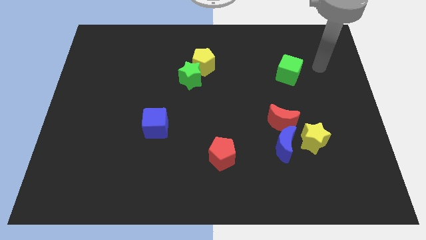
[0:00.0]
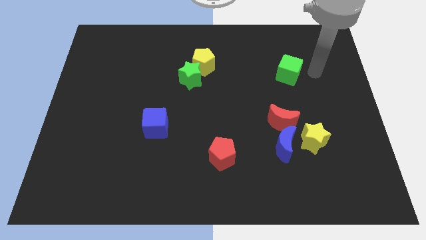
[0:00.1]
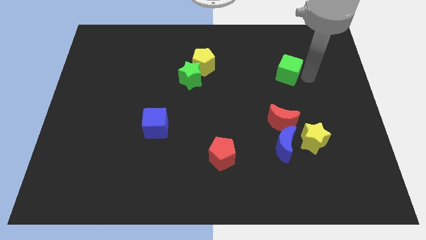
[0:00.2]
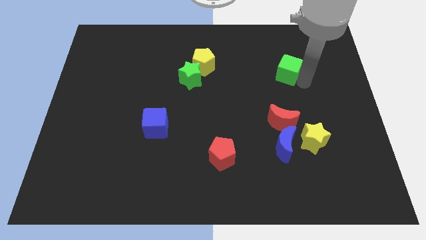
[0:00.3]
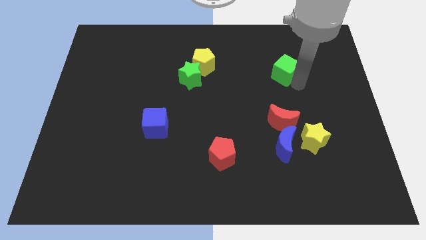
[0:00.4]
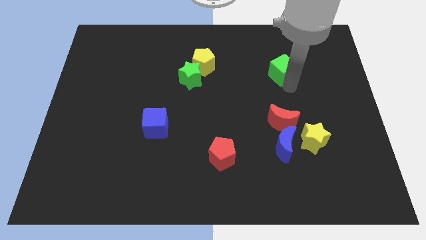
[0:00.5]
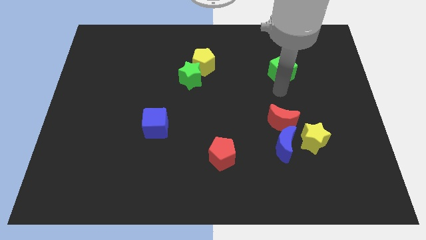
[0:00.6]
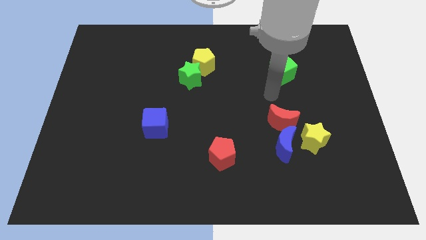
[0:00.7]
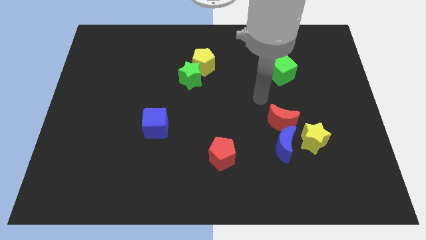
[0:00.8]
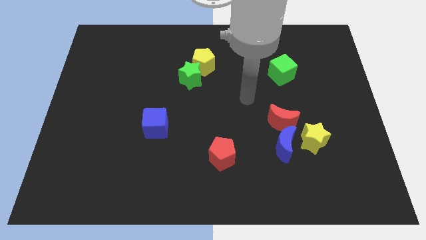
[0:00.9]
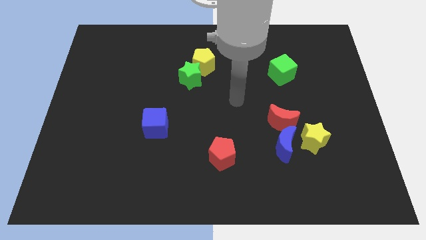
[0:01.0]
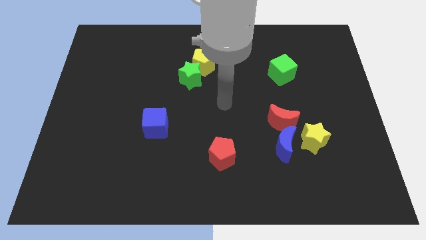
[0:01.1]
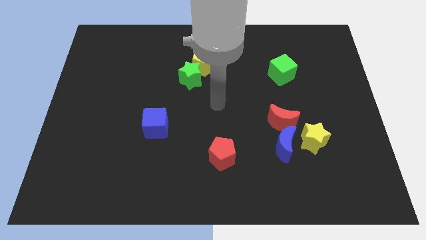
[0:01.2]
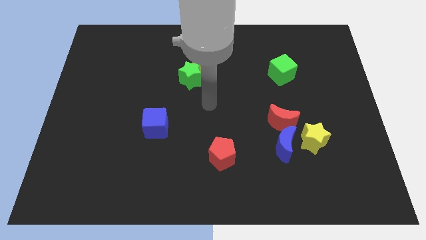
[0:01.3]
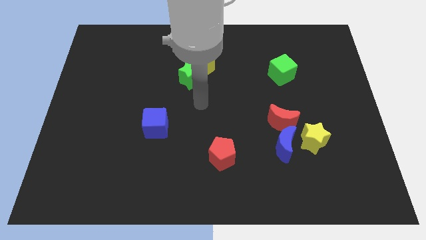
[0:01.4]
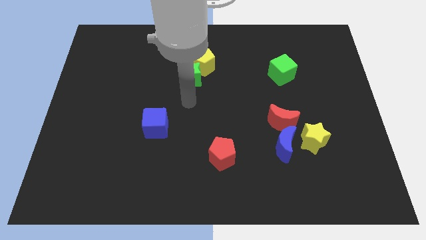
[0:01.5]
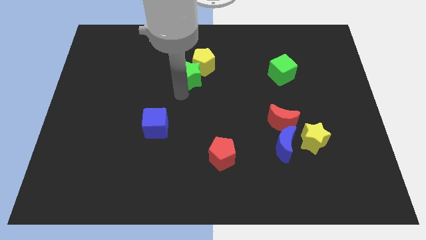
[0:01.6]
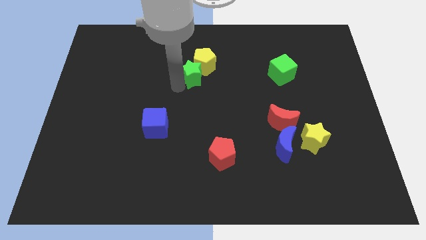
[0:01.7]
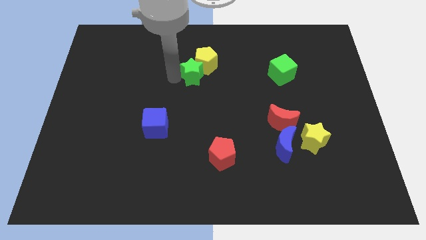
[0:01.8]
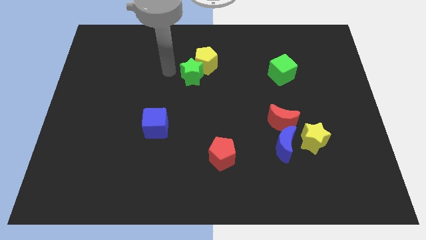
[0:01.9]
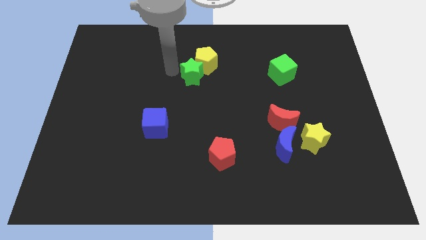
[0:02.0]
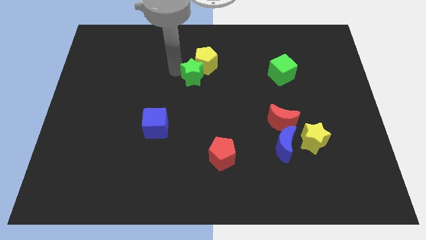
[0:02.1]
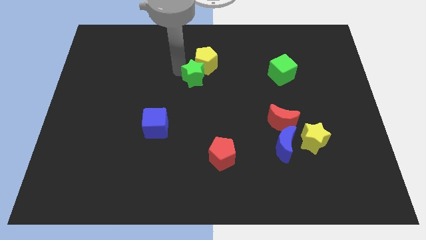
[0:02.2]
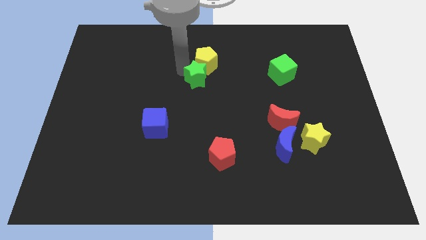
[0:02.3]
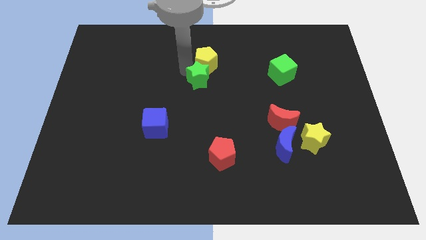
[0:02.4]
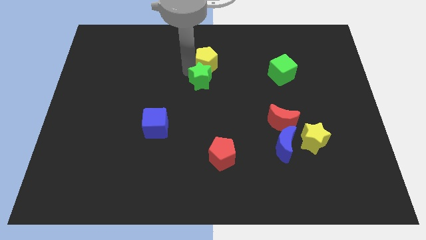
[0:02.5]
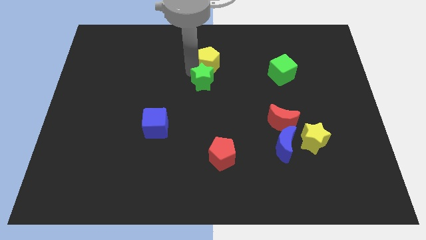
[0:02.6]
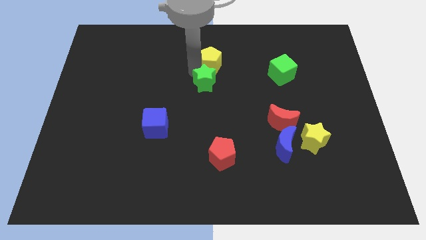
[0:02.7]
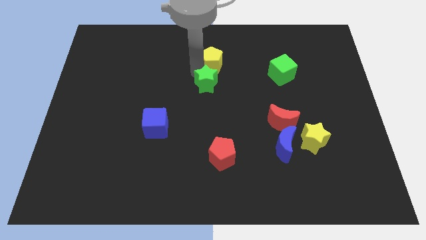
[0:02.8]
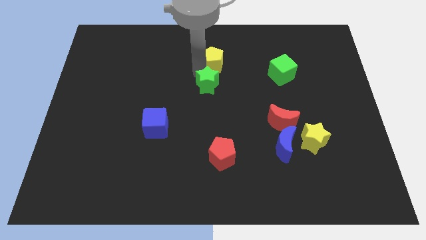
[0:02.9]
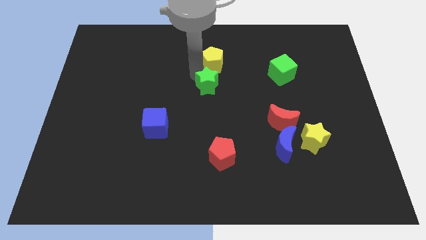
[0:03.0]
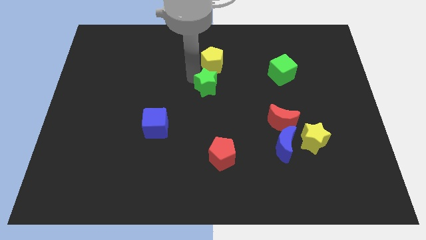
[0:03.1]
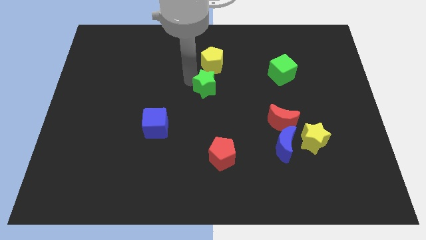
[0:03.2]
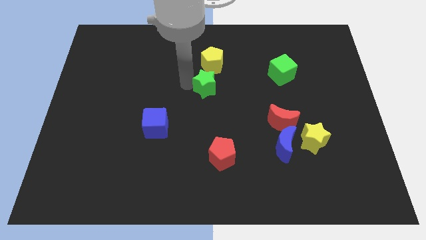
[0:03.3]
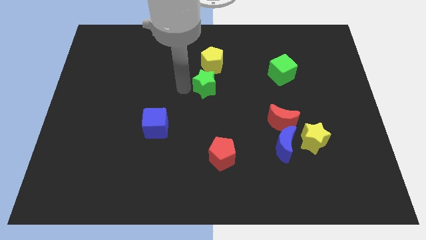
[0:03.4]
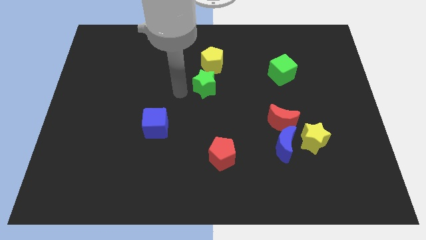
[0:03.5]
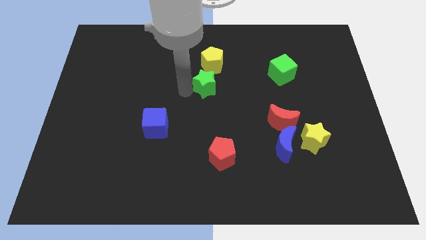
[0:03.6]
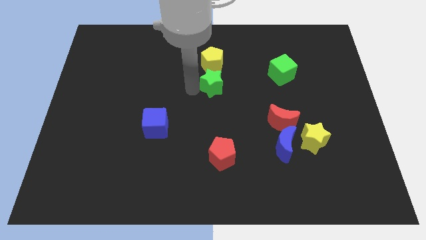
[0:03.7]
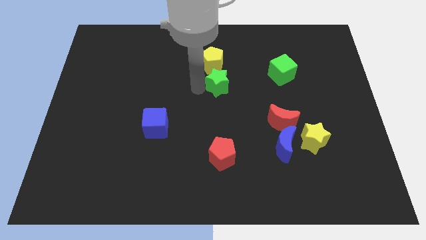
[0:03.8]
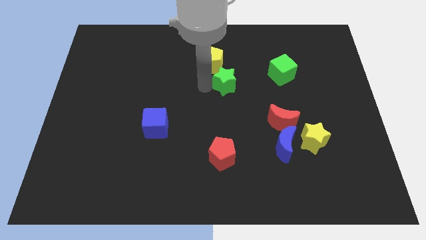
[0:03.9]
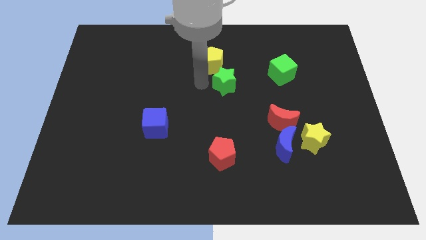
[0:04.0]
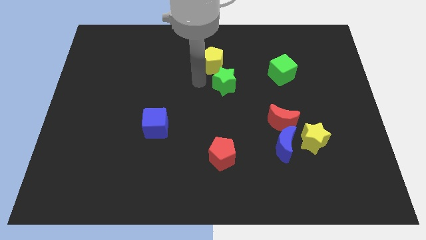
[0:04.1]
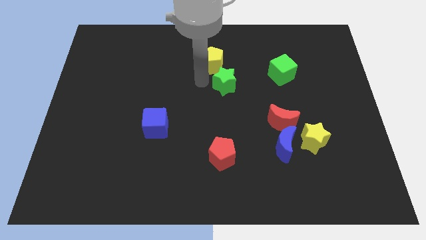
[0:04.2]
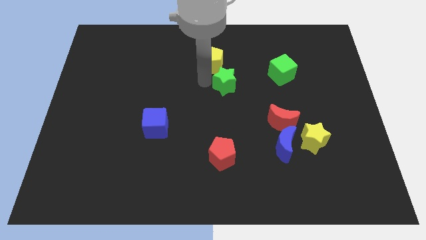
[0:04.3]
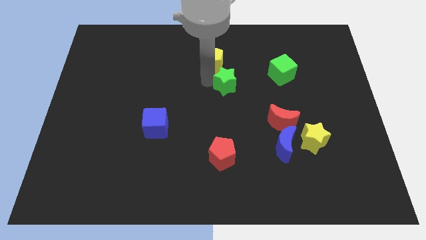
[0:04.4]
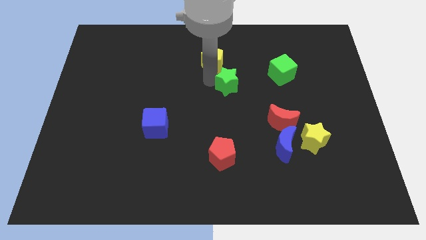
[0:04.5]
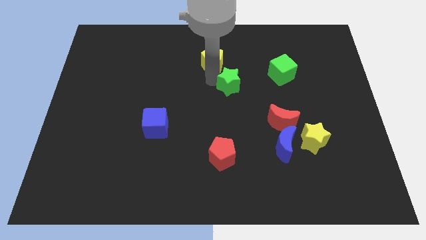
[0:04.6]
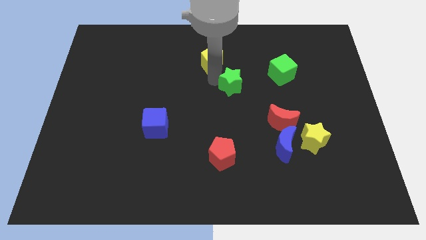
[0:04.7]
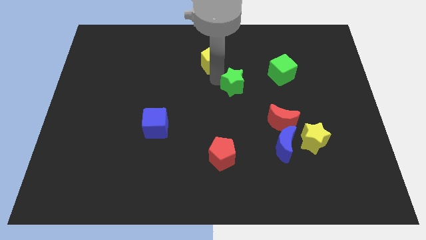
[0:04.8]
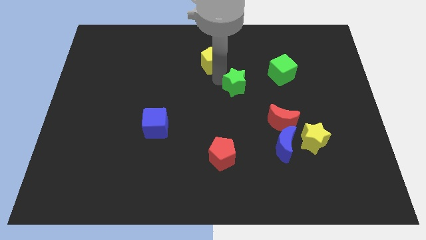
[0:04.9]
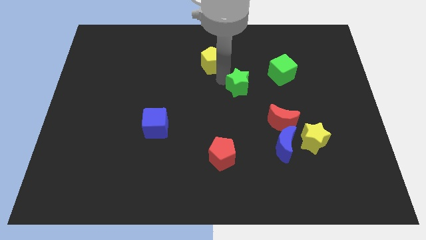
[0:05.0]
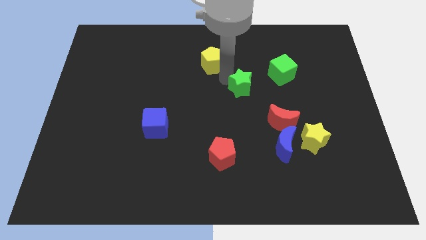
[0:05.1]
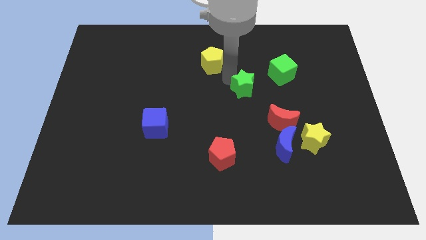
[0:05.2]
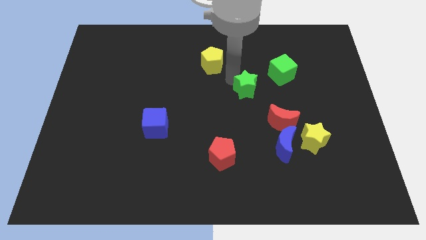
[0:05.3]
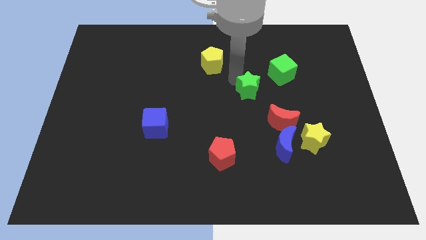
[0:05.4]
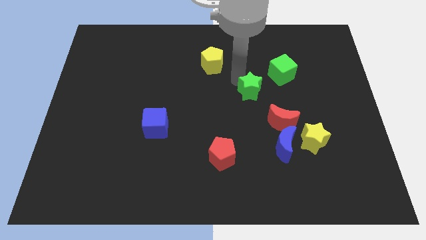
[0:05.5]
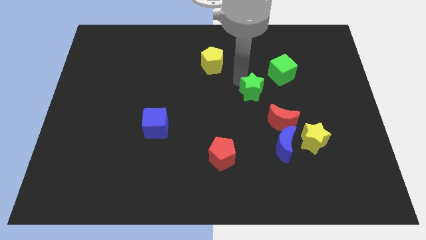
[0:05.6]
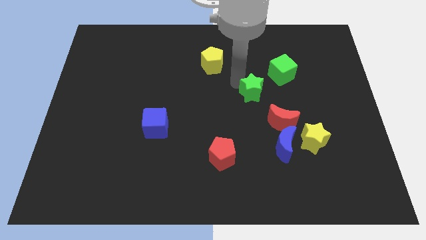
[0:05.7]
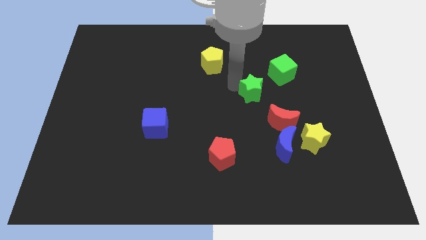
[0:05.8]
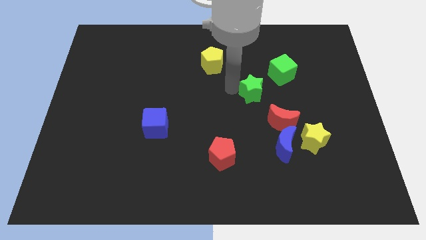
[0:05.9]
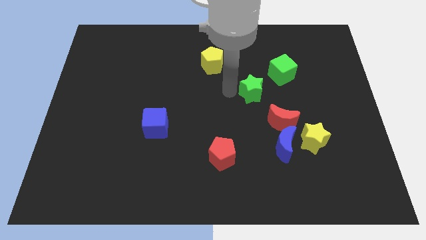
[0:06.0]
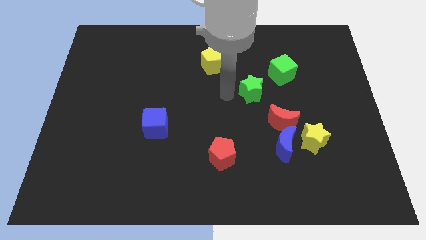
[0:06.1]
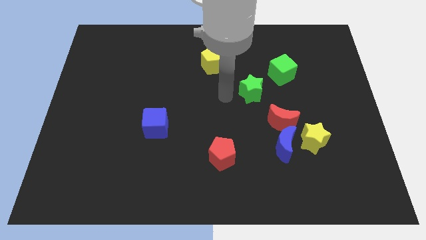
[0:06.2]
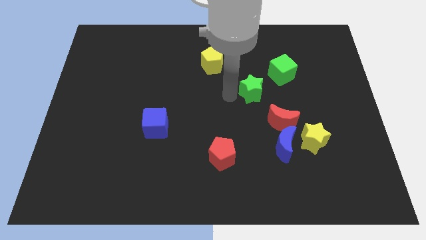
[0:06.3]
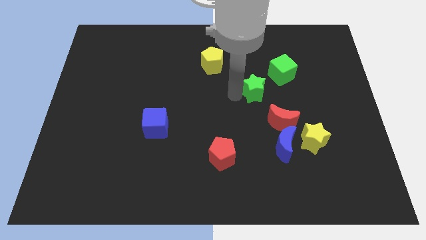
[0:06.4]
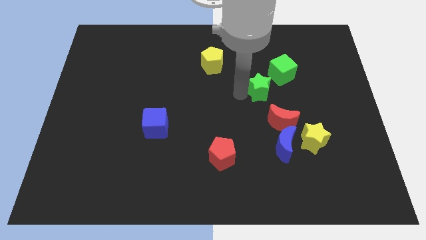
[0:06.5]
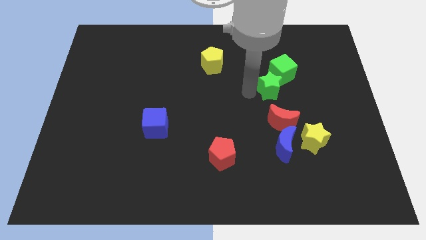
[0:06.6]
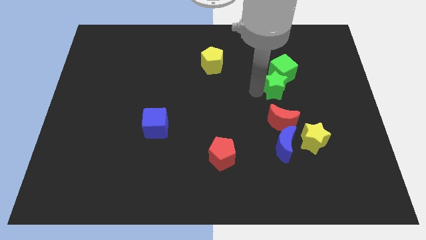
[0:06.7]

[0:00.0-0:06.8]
slide the green star to the right

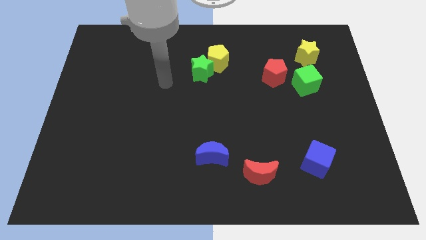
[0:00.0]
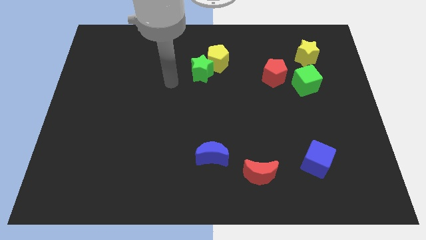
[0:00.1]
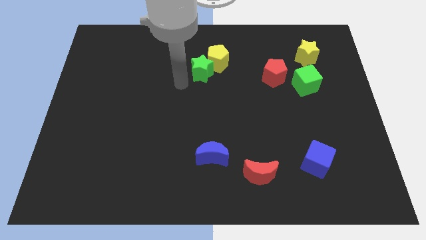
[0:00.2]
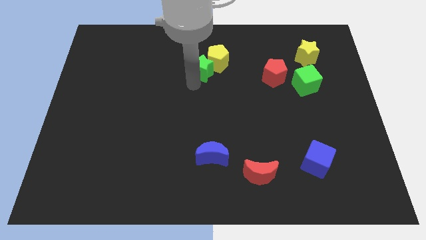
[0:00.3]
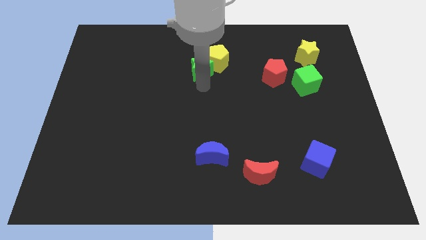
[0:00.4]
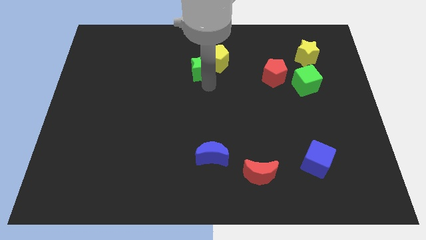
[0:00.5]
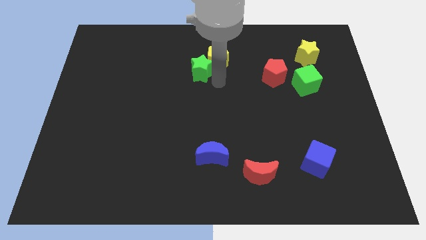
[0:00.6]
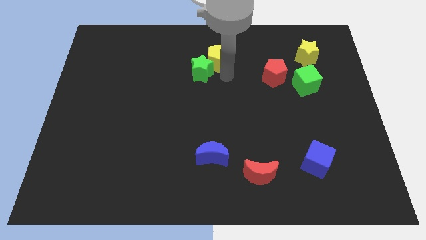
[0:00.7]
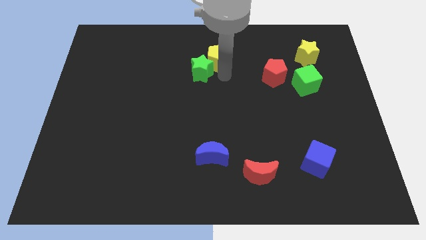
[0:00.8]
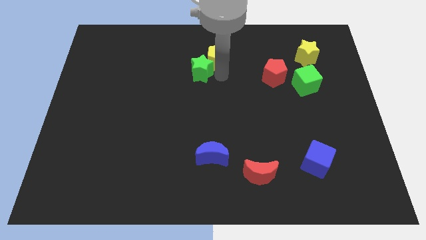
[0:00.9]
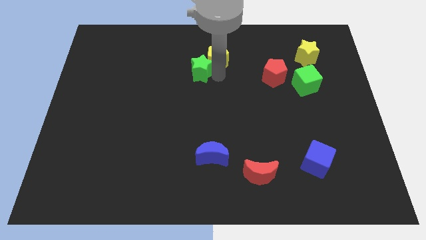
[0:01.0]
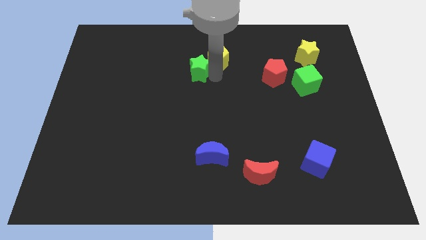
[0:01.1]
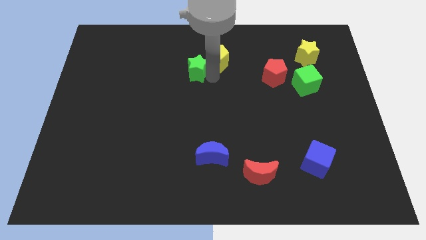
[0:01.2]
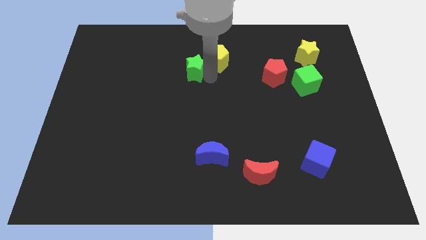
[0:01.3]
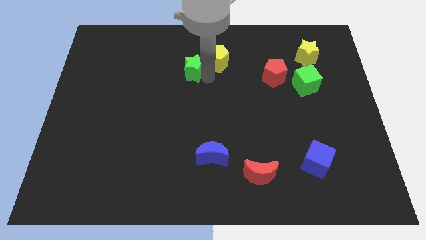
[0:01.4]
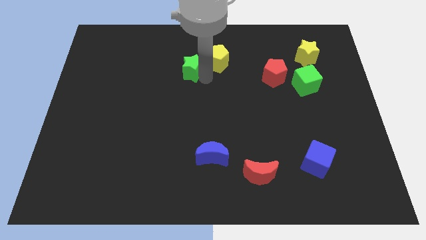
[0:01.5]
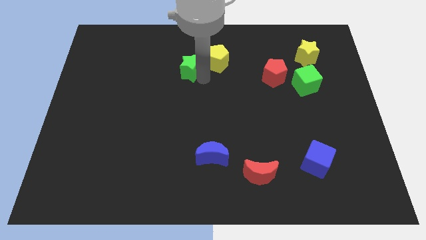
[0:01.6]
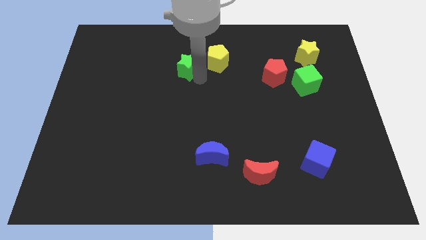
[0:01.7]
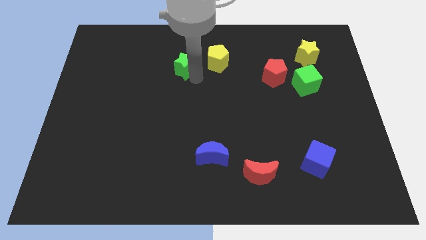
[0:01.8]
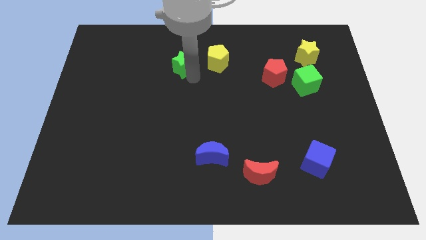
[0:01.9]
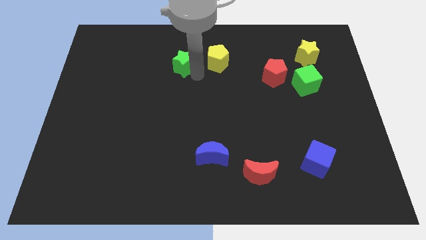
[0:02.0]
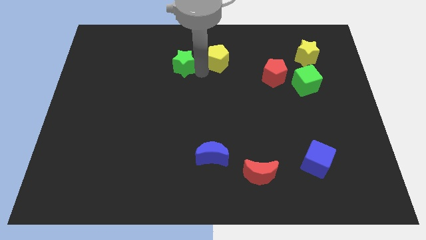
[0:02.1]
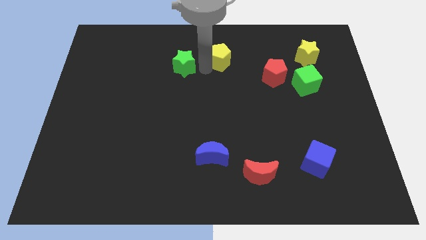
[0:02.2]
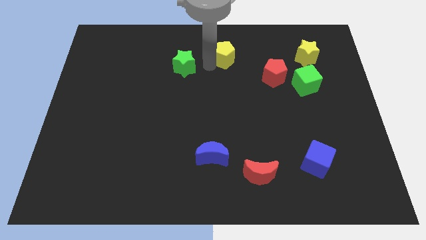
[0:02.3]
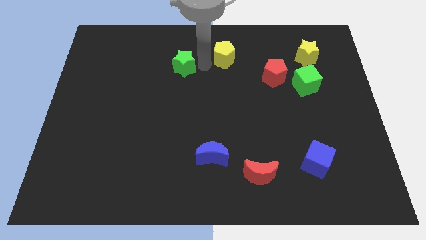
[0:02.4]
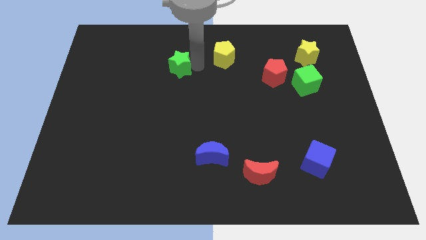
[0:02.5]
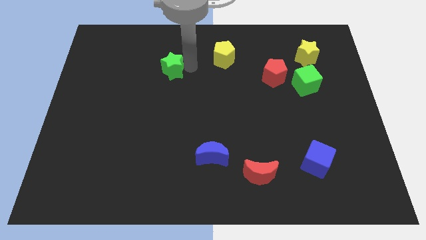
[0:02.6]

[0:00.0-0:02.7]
slide the green star a bit left
